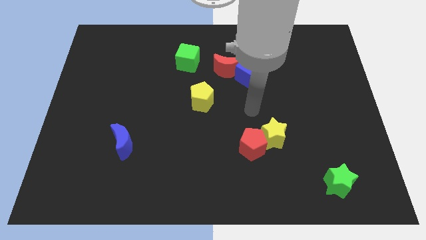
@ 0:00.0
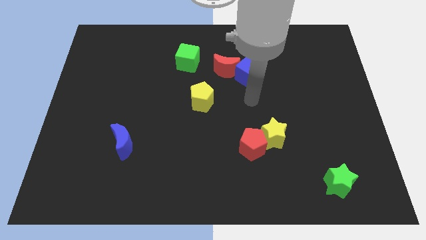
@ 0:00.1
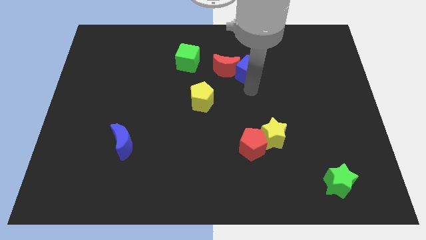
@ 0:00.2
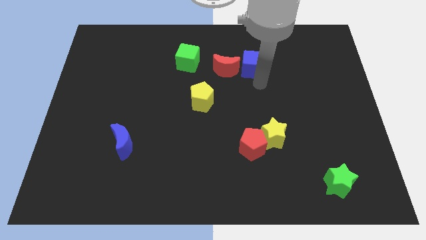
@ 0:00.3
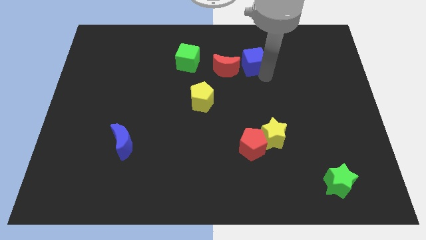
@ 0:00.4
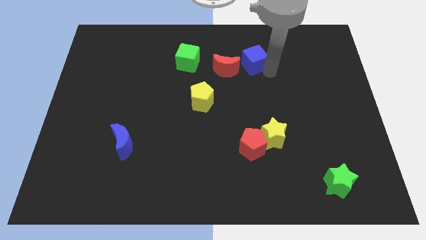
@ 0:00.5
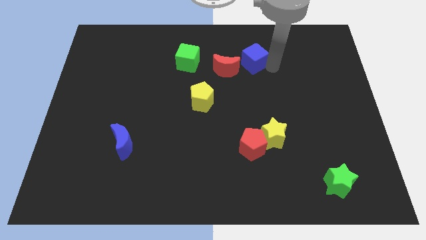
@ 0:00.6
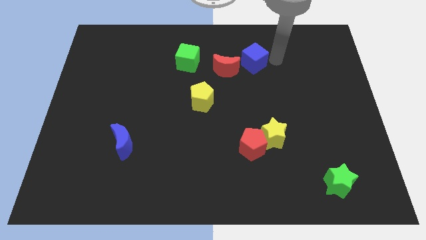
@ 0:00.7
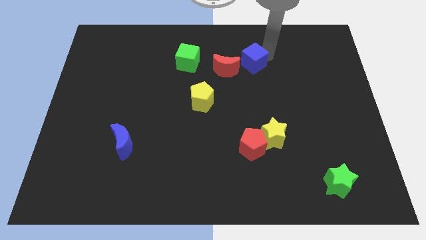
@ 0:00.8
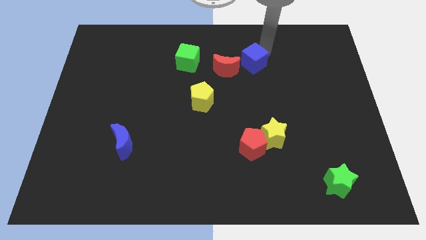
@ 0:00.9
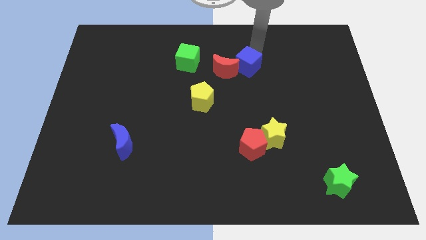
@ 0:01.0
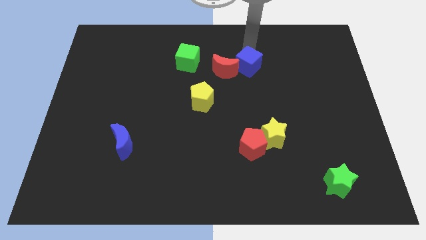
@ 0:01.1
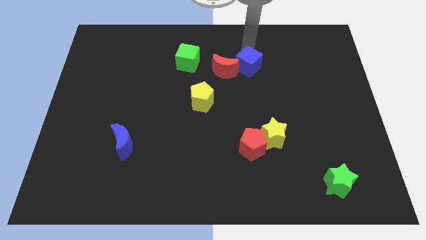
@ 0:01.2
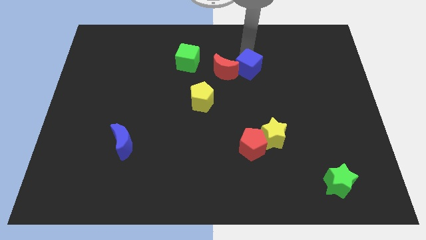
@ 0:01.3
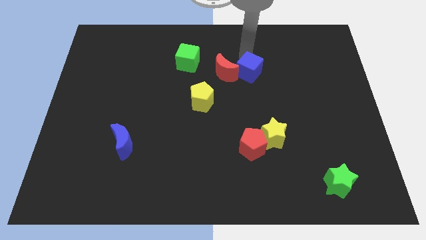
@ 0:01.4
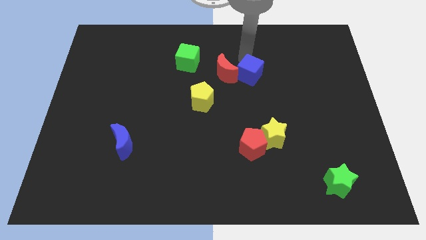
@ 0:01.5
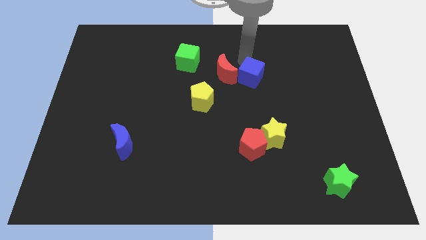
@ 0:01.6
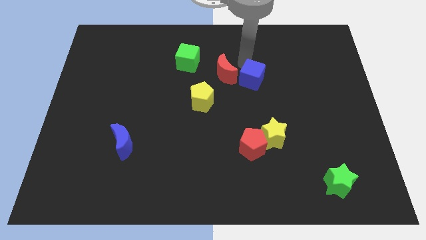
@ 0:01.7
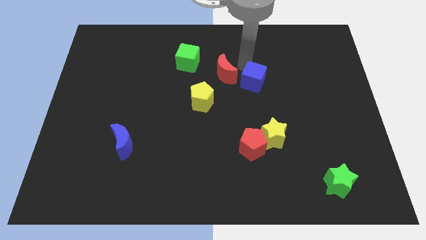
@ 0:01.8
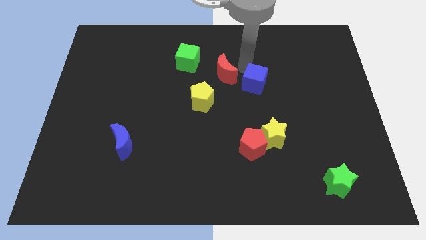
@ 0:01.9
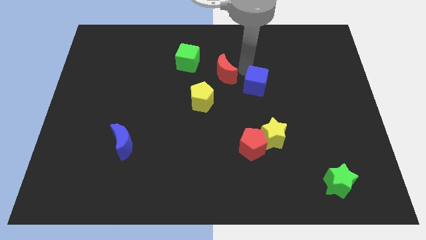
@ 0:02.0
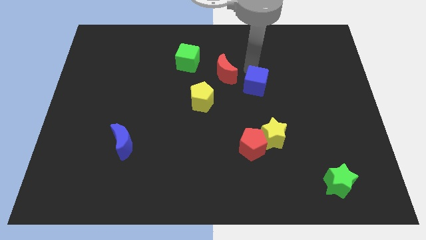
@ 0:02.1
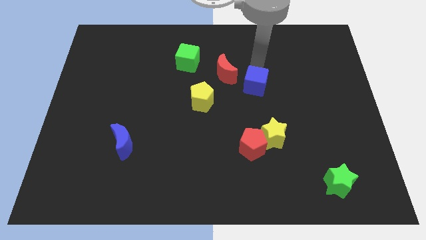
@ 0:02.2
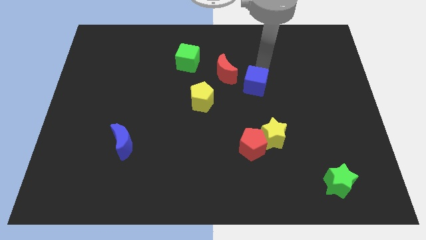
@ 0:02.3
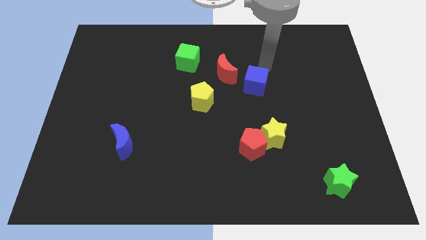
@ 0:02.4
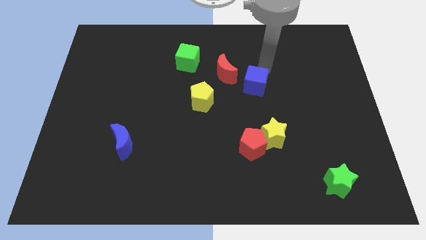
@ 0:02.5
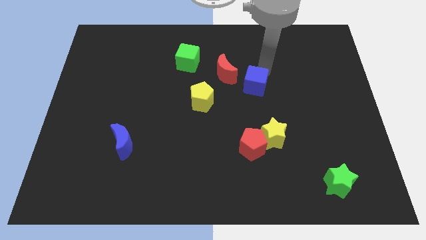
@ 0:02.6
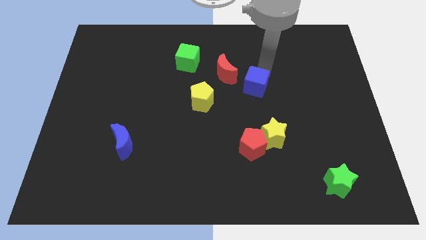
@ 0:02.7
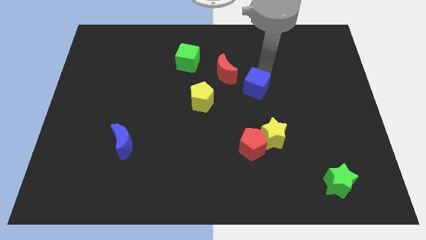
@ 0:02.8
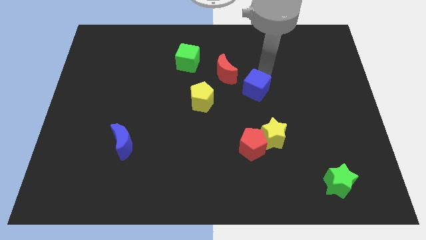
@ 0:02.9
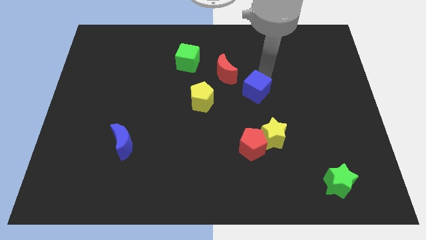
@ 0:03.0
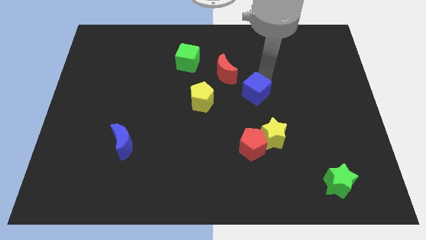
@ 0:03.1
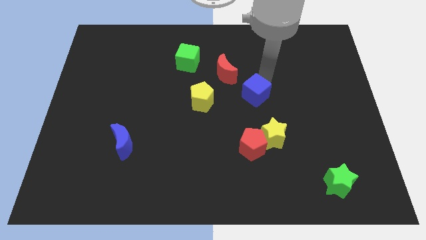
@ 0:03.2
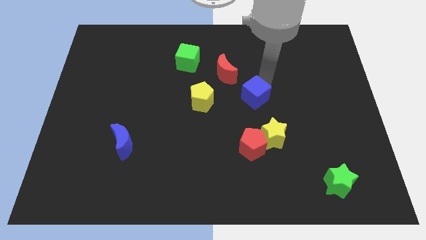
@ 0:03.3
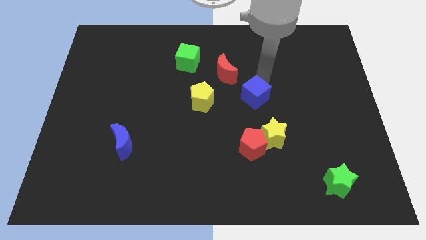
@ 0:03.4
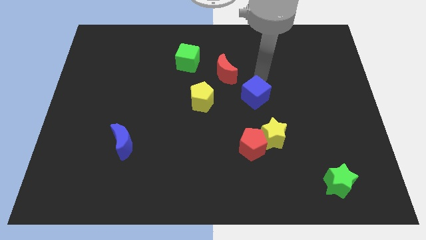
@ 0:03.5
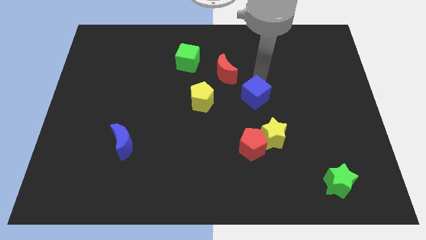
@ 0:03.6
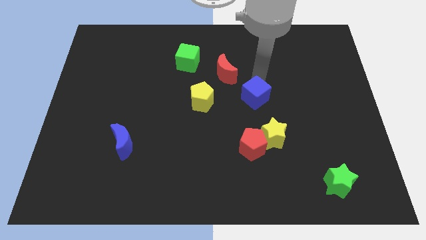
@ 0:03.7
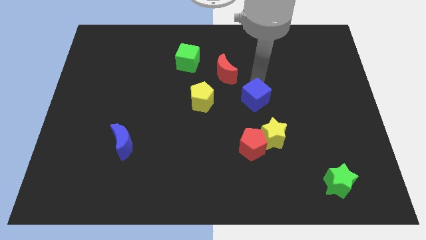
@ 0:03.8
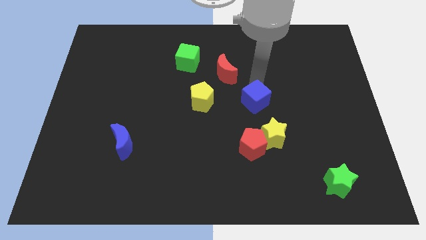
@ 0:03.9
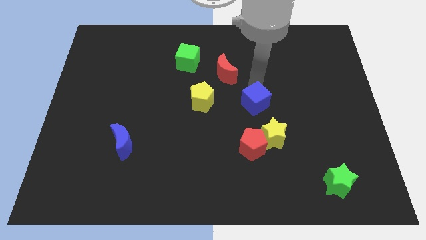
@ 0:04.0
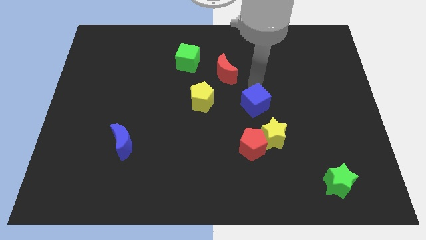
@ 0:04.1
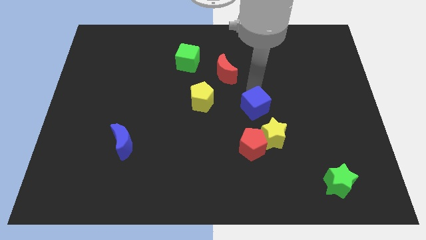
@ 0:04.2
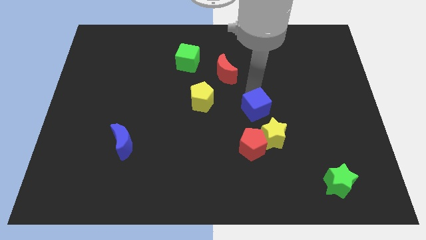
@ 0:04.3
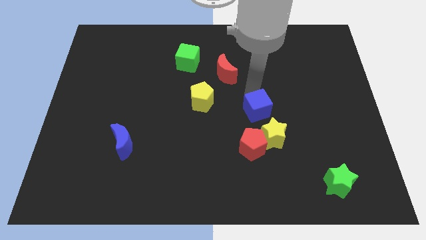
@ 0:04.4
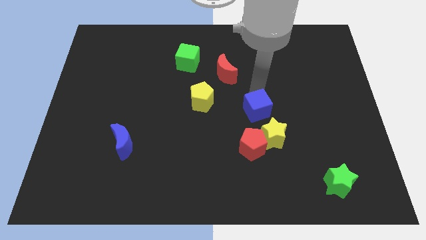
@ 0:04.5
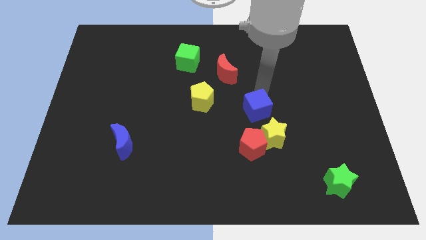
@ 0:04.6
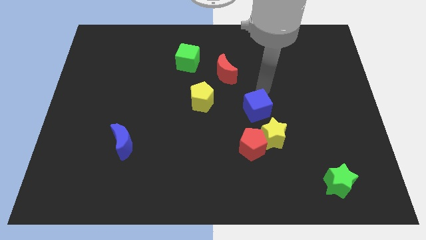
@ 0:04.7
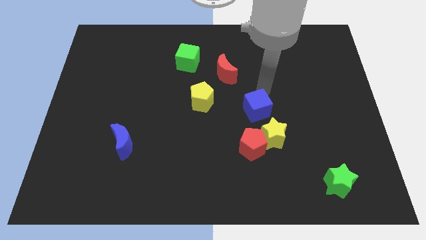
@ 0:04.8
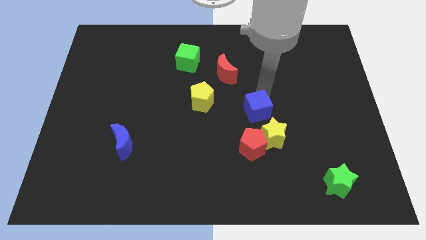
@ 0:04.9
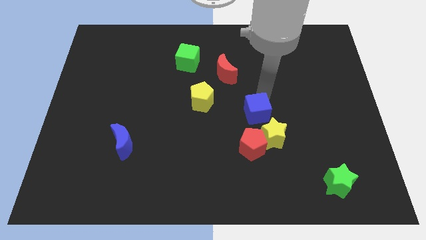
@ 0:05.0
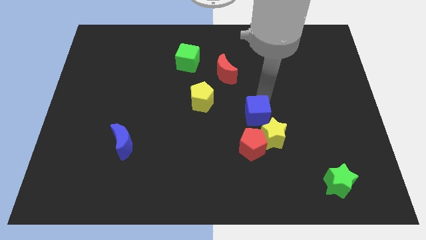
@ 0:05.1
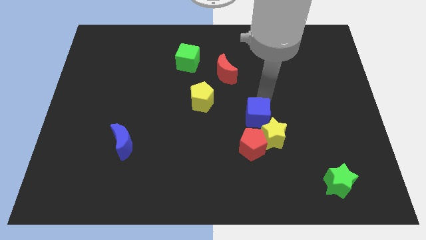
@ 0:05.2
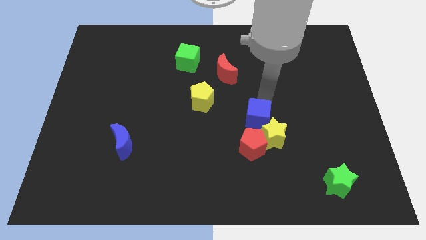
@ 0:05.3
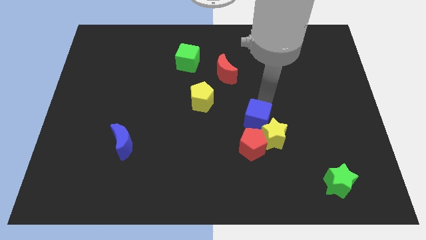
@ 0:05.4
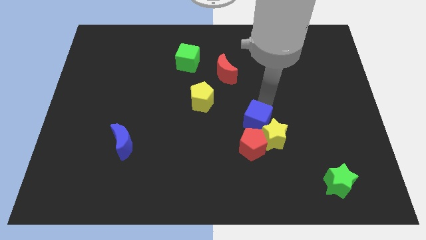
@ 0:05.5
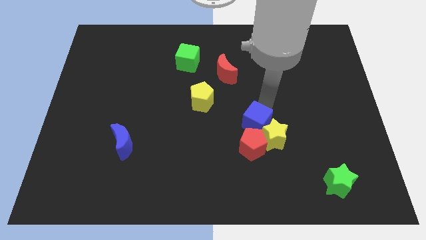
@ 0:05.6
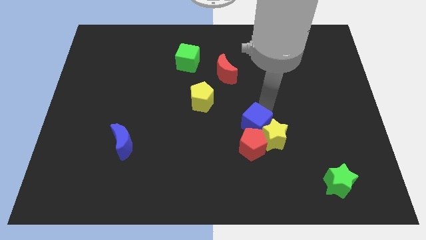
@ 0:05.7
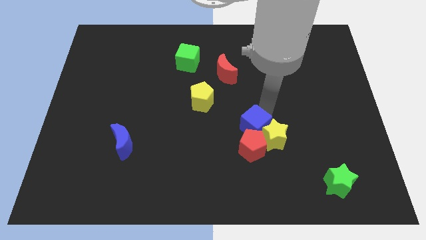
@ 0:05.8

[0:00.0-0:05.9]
push the blue cube next to the red pentagon
